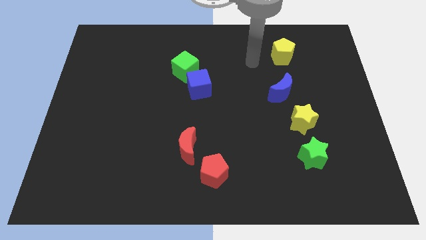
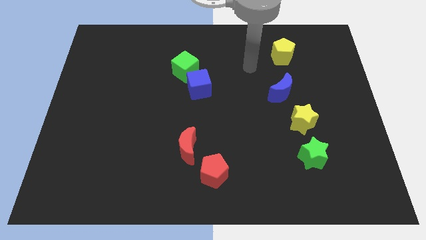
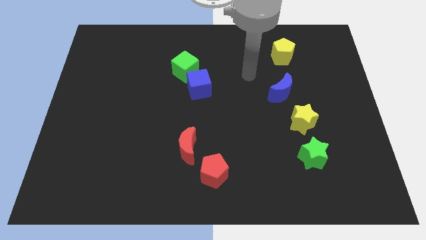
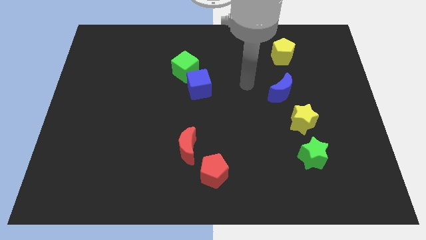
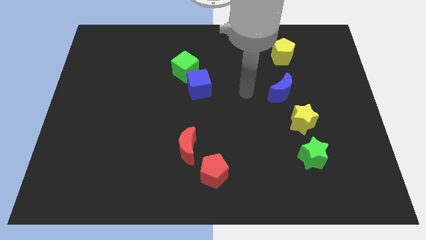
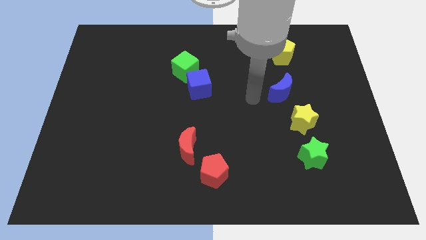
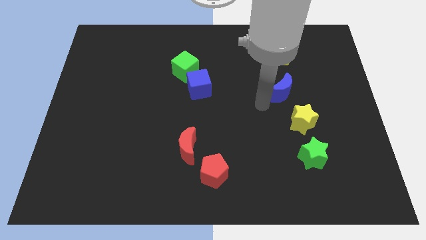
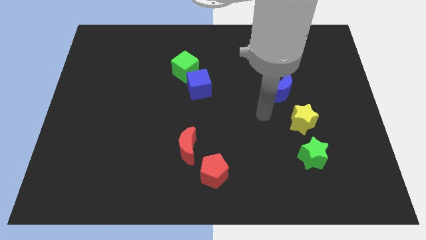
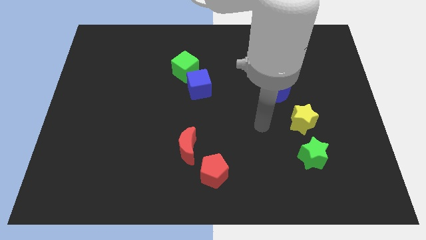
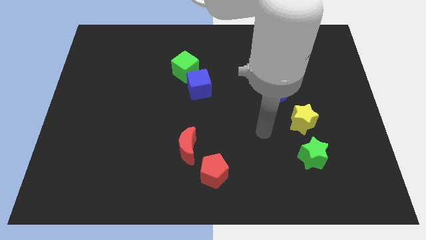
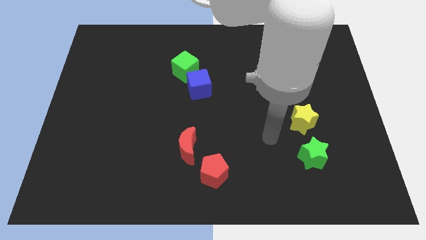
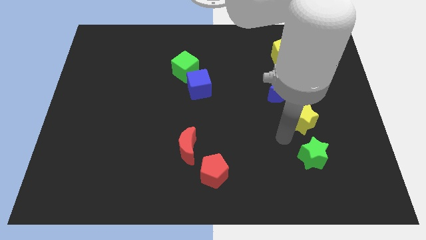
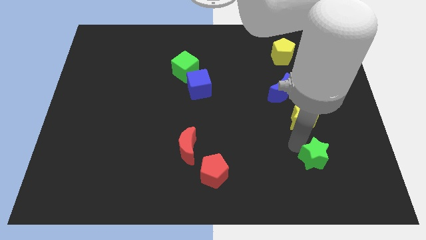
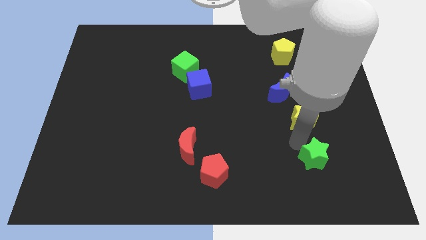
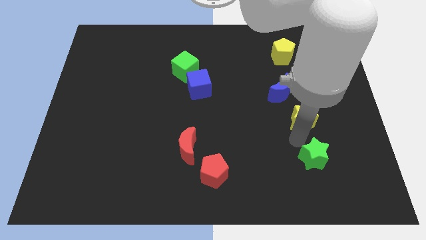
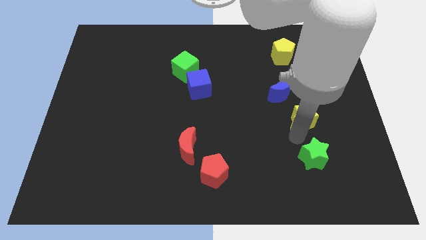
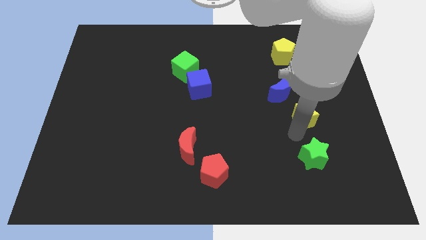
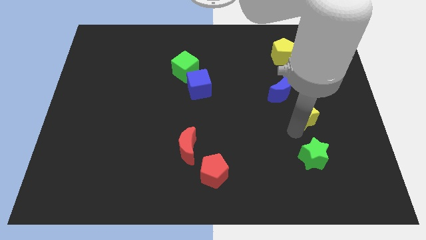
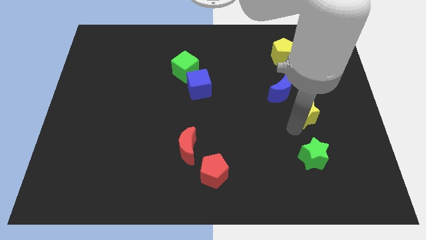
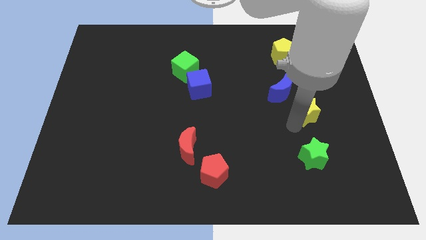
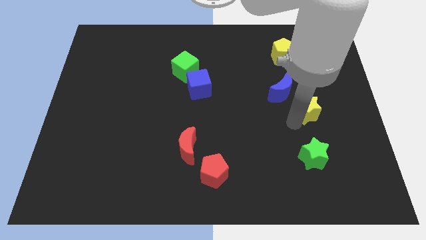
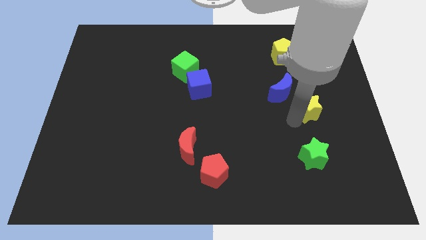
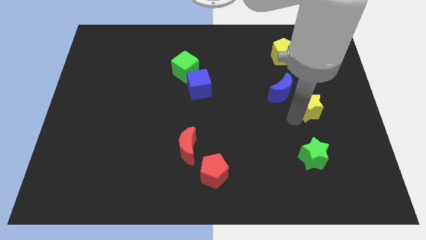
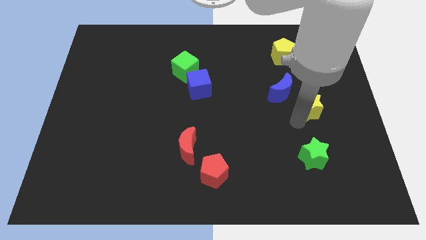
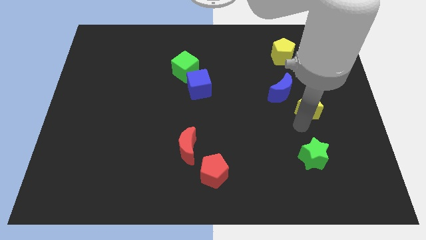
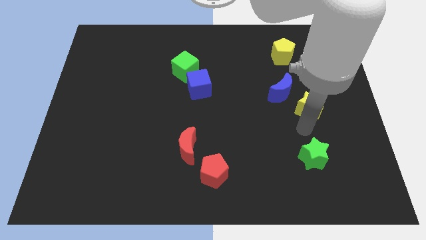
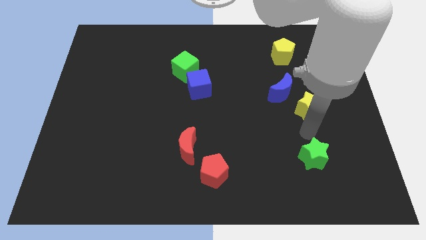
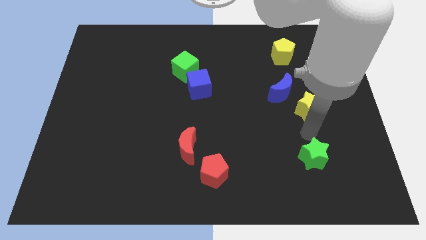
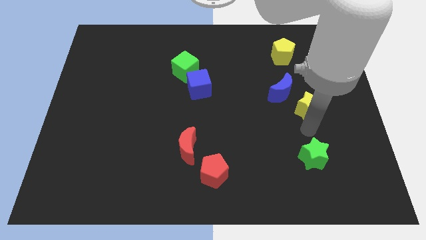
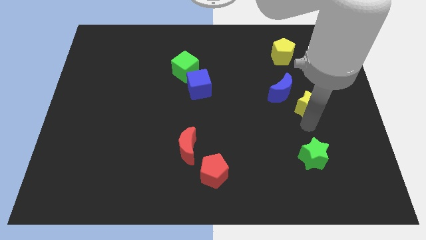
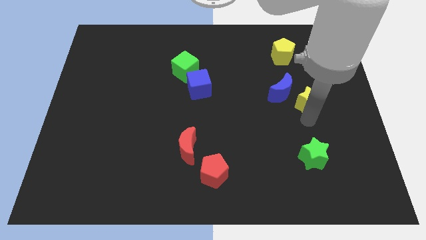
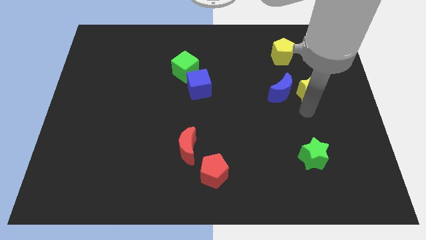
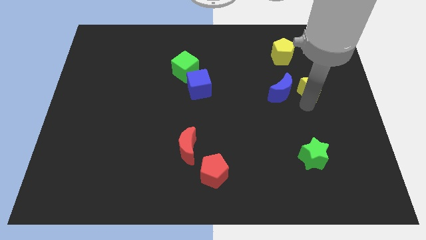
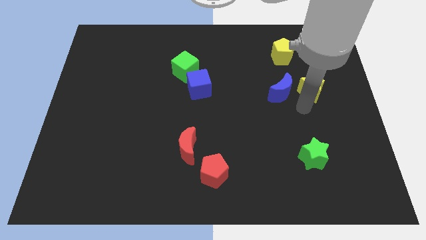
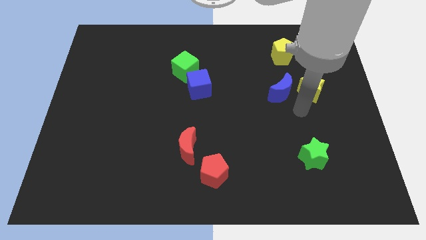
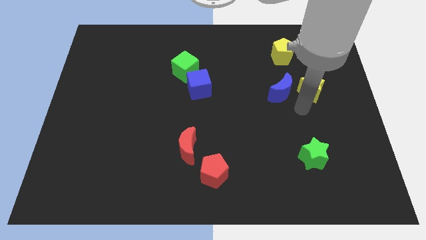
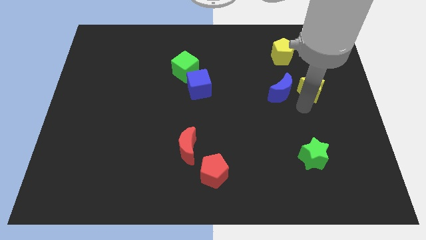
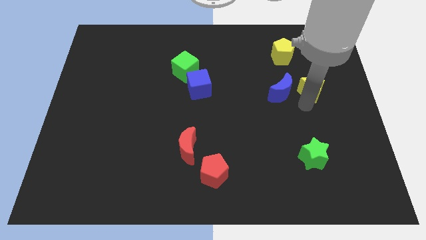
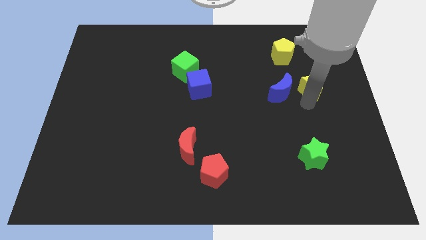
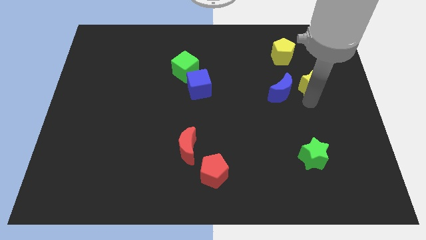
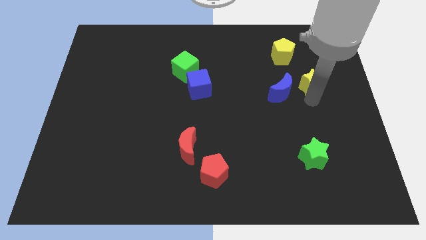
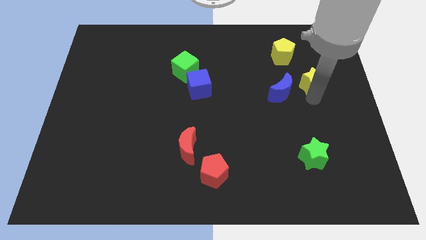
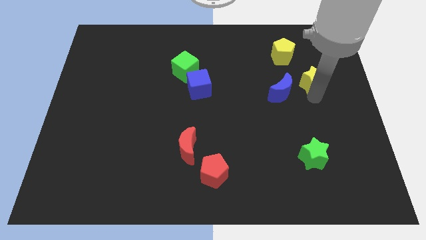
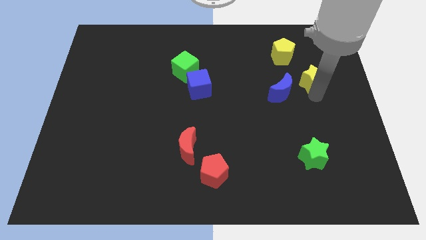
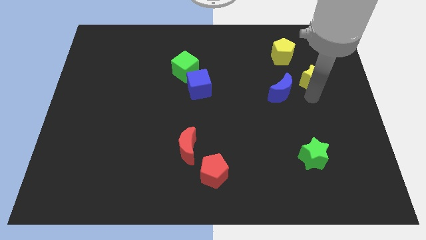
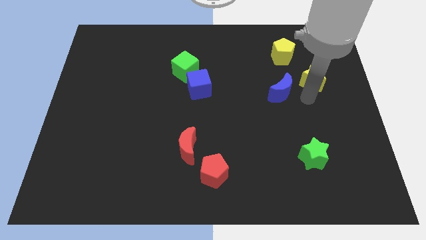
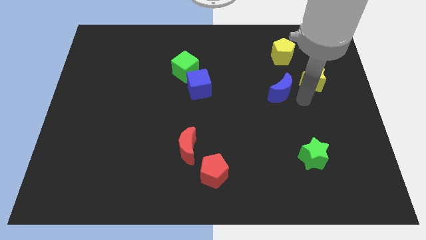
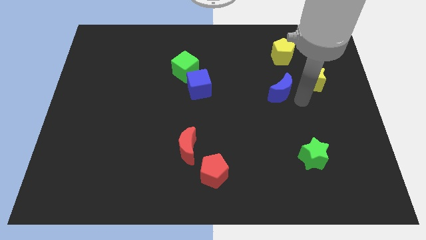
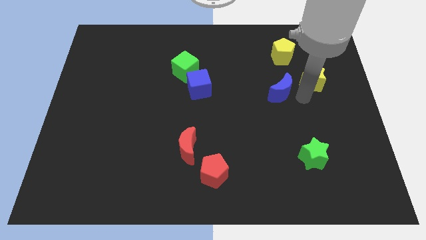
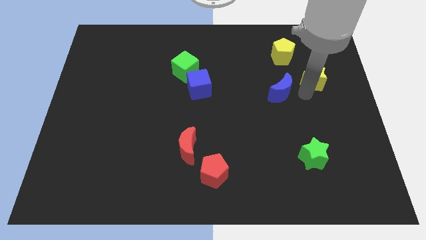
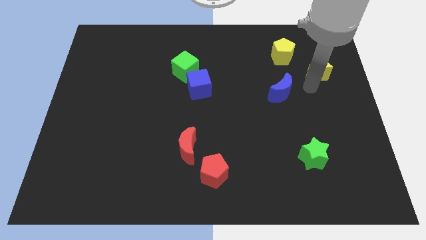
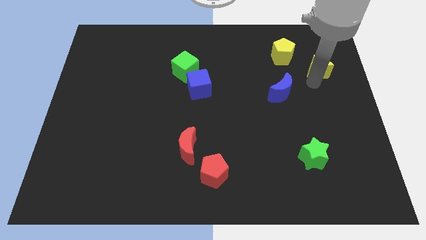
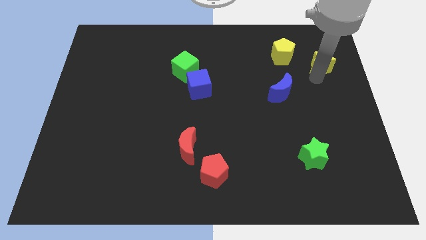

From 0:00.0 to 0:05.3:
move the yellow star to the right side of the yellow pentagon

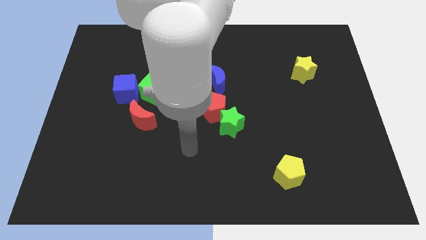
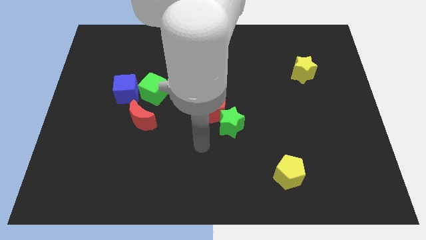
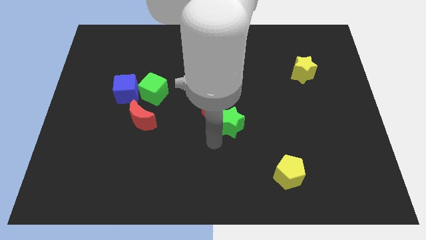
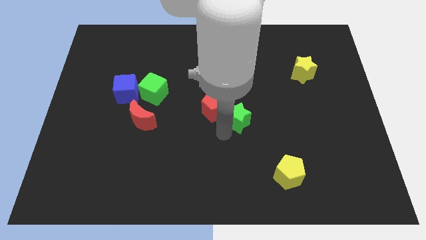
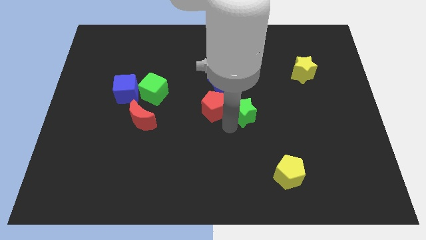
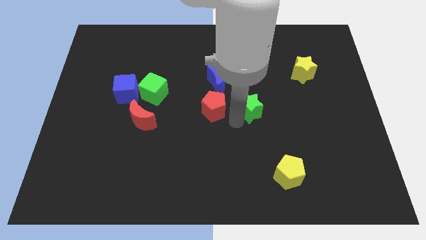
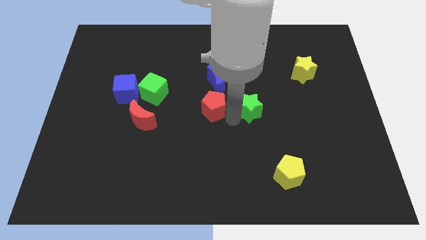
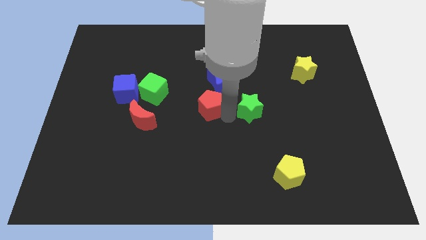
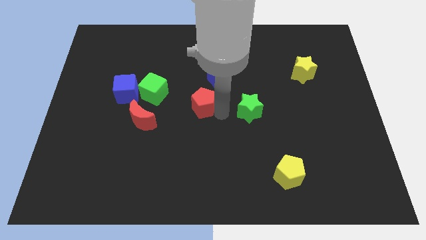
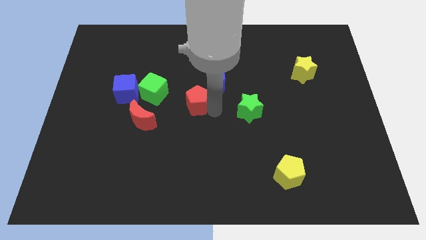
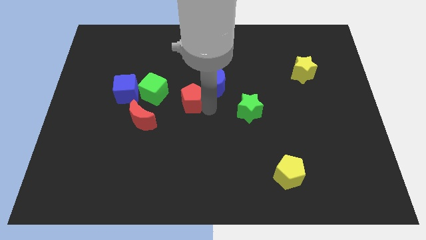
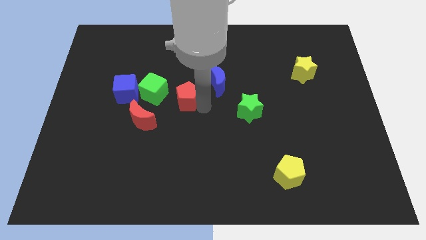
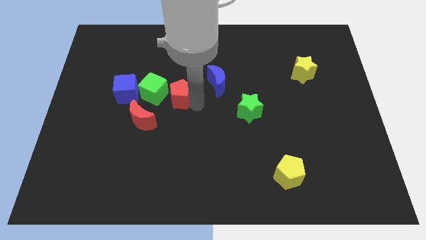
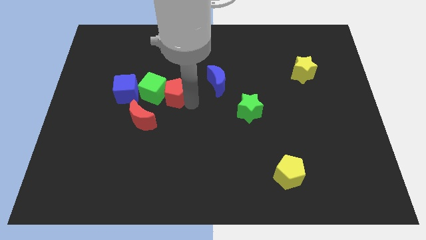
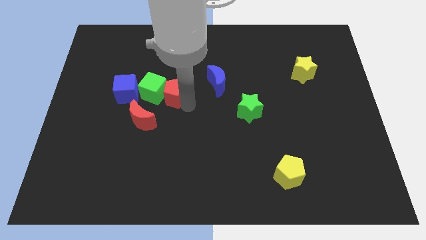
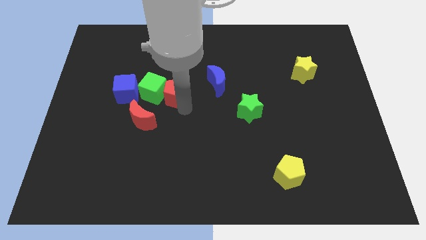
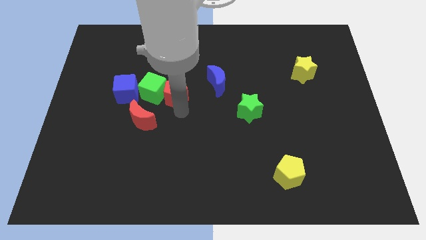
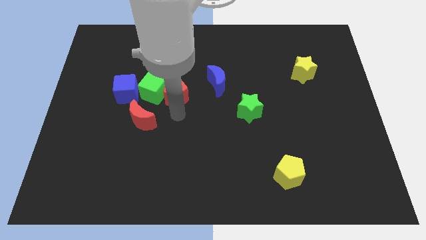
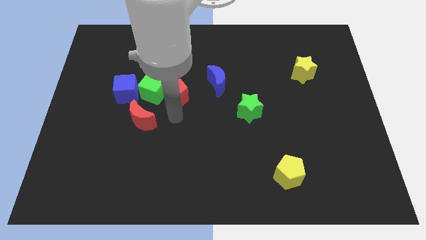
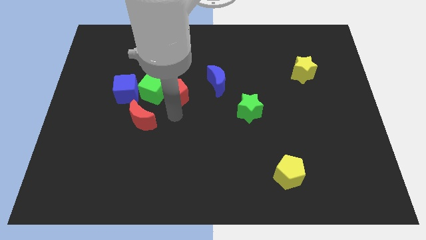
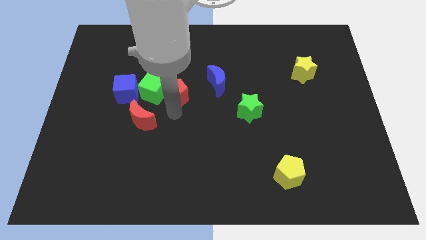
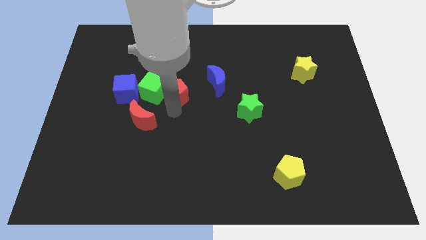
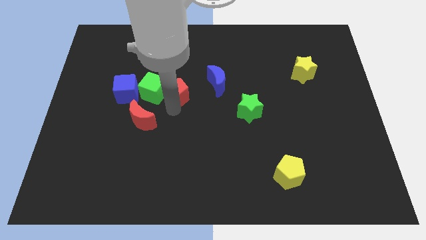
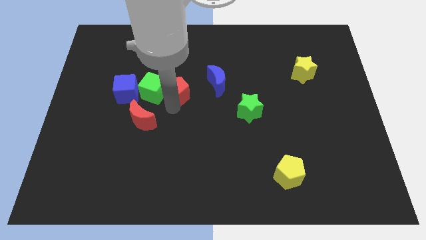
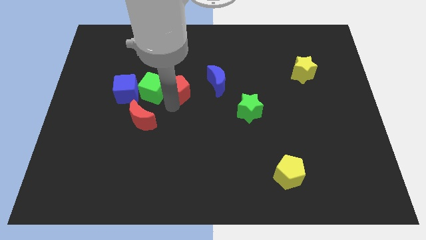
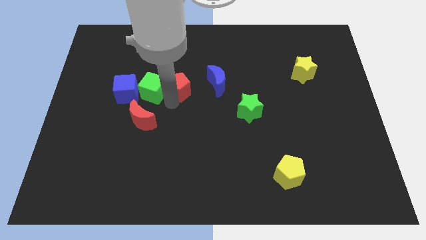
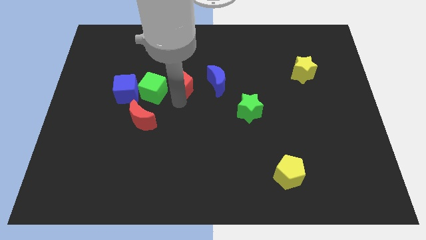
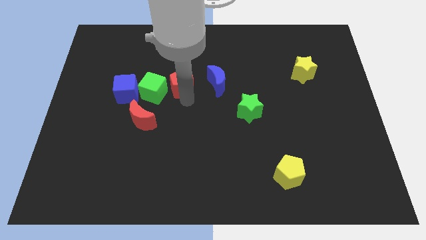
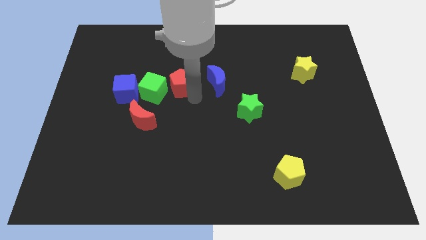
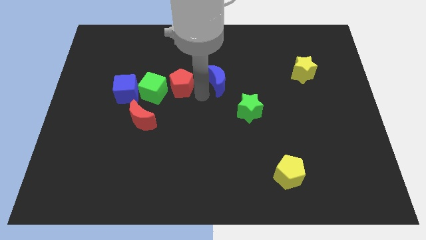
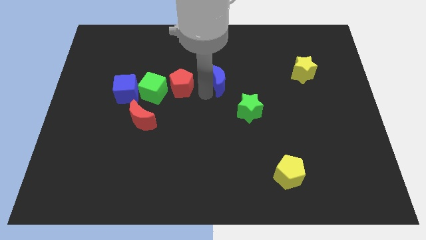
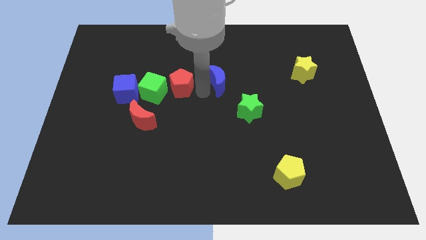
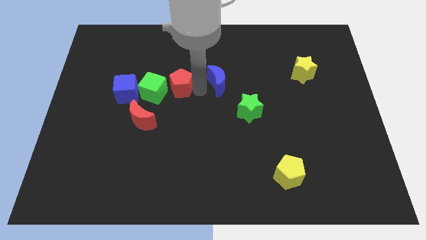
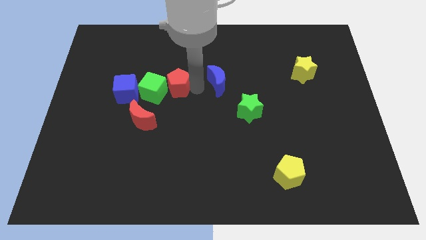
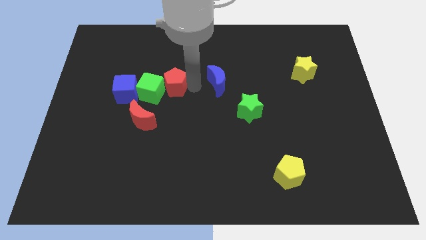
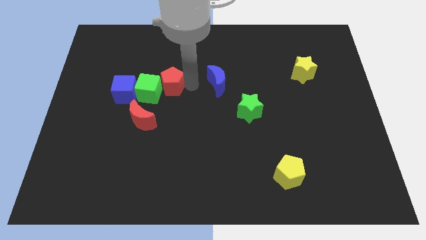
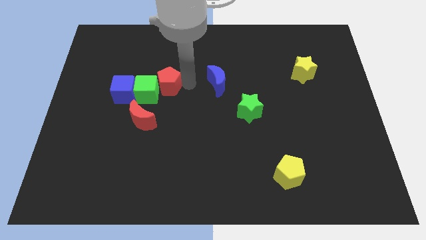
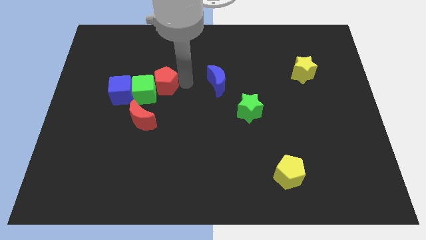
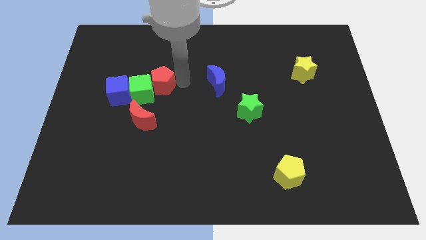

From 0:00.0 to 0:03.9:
slide the red pentagon diagonally up and to the right of the blue cube
